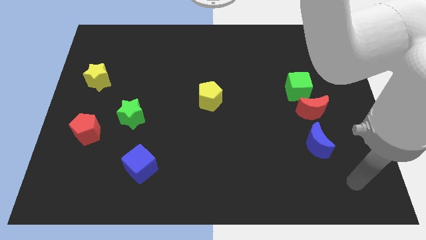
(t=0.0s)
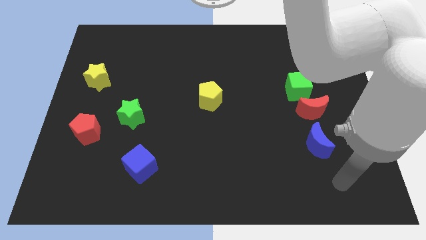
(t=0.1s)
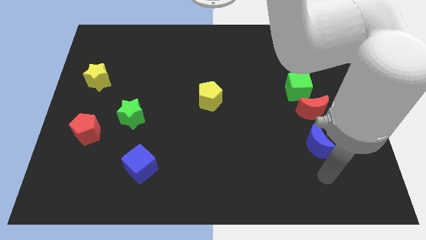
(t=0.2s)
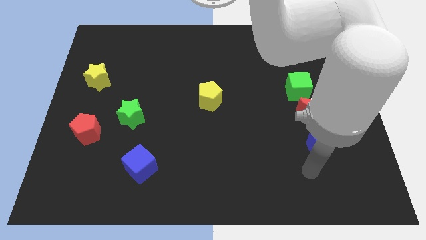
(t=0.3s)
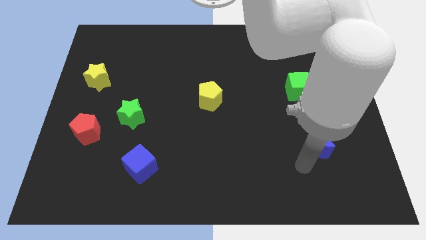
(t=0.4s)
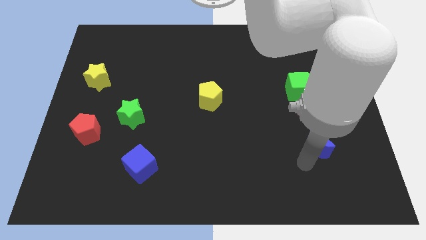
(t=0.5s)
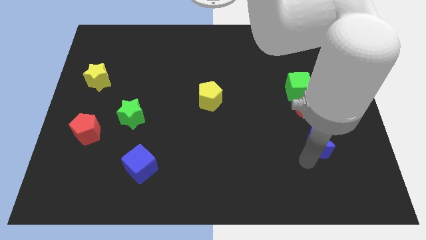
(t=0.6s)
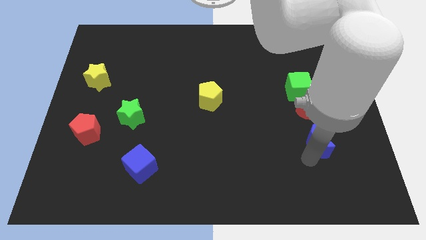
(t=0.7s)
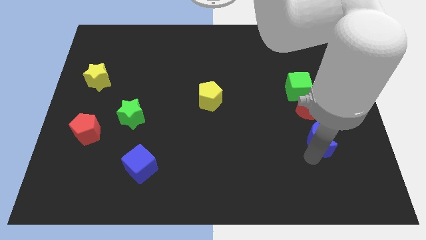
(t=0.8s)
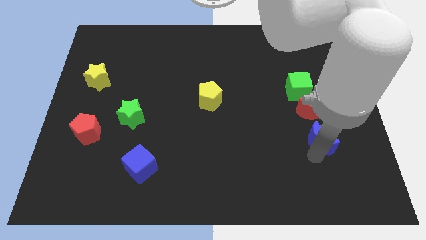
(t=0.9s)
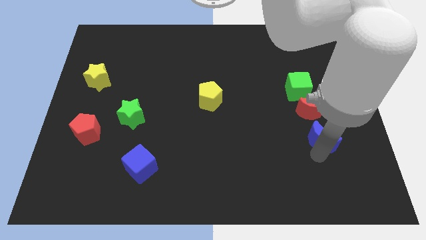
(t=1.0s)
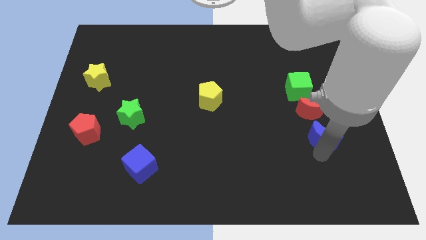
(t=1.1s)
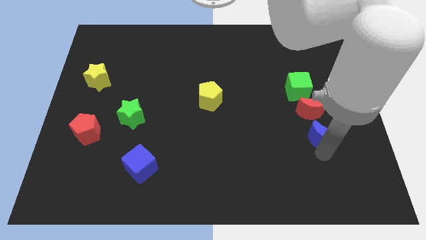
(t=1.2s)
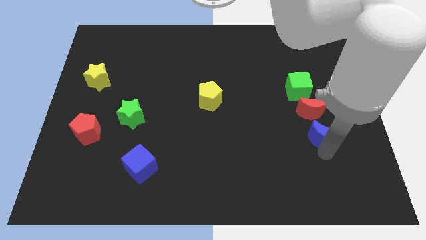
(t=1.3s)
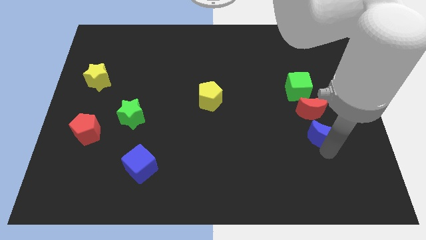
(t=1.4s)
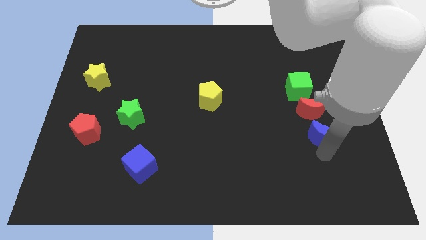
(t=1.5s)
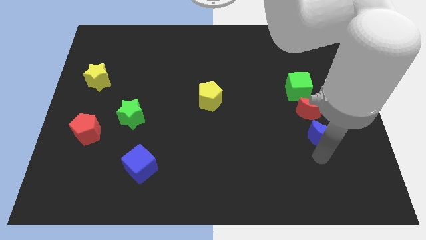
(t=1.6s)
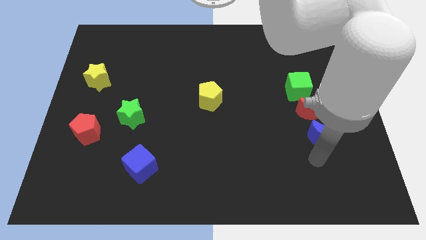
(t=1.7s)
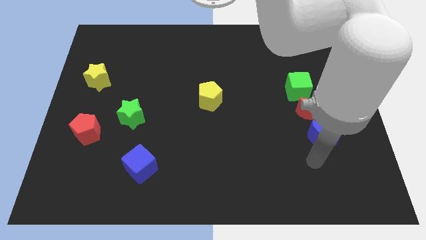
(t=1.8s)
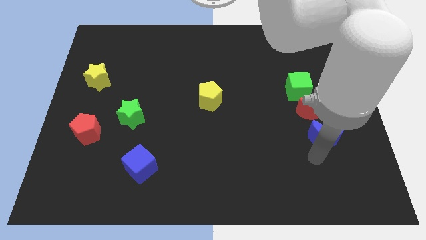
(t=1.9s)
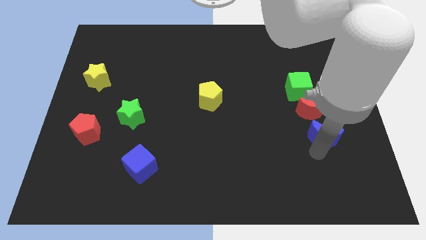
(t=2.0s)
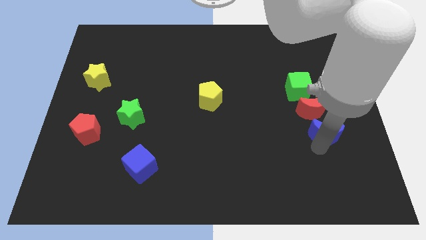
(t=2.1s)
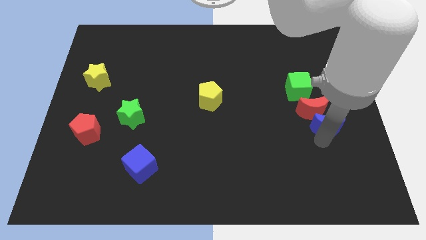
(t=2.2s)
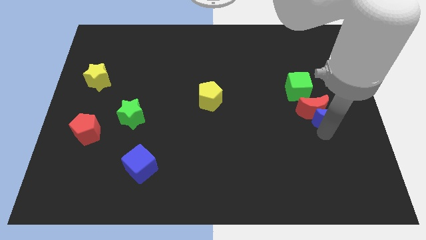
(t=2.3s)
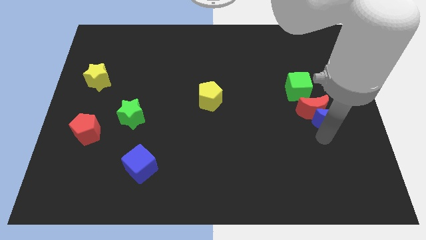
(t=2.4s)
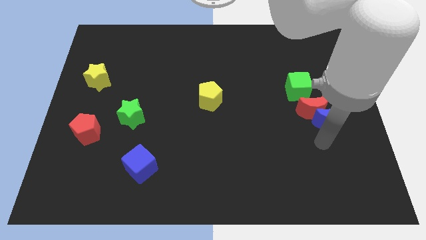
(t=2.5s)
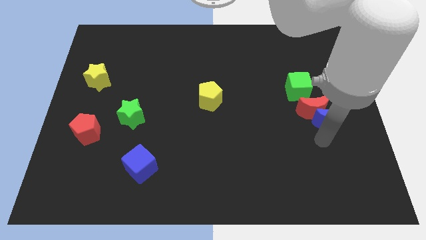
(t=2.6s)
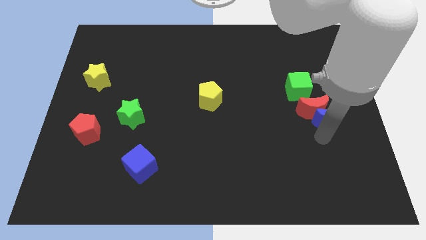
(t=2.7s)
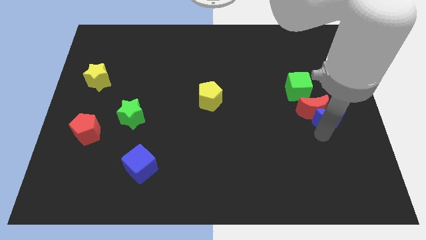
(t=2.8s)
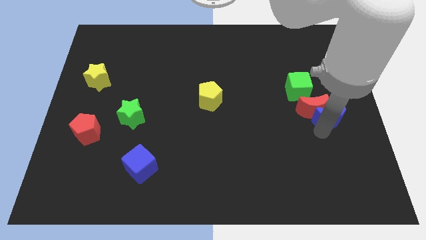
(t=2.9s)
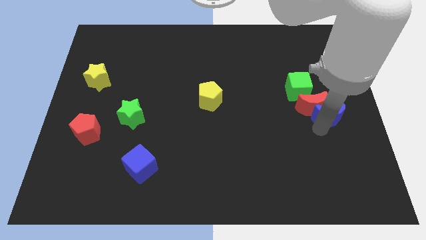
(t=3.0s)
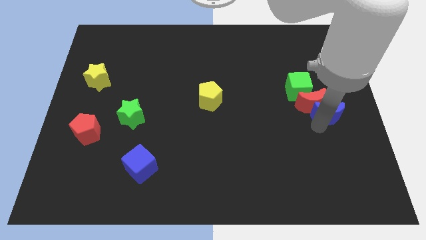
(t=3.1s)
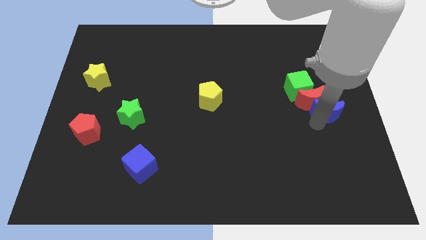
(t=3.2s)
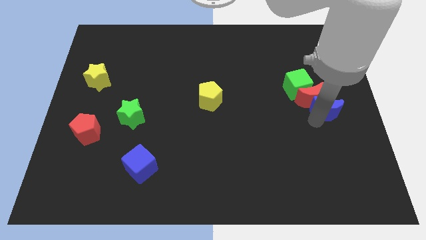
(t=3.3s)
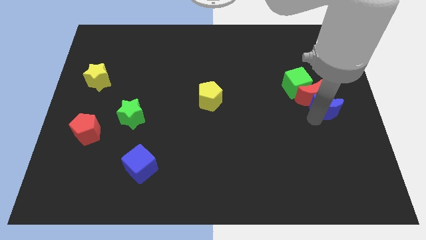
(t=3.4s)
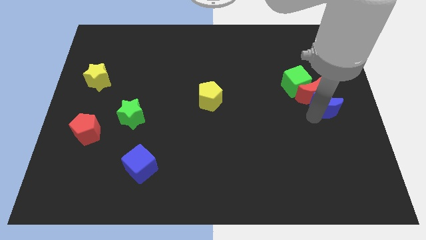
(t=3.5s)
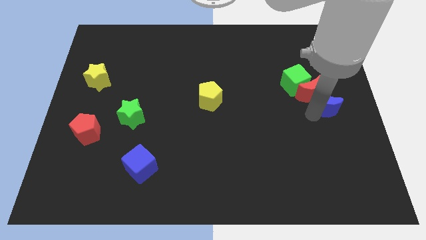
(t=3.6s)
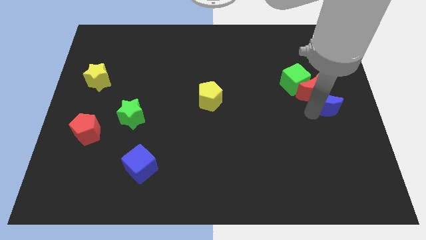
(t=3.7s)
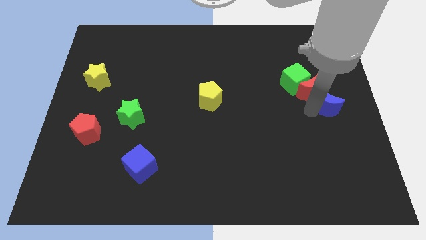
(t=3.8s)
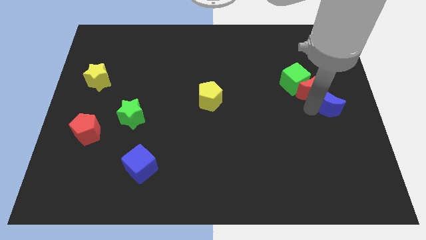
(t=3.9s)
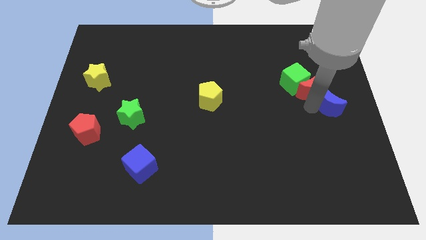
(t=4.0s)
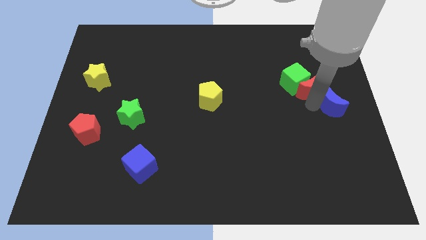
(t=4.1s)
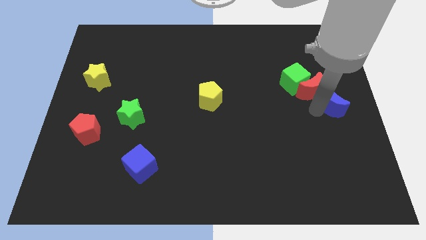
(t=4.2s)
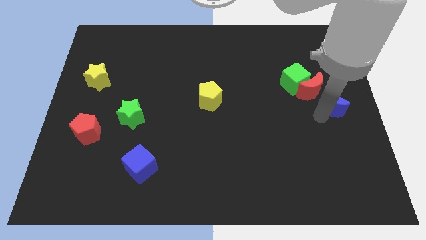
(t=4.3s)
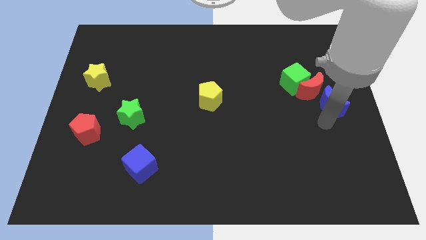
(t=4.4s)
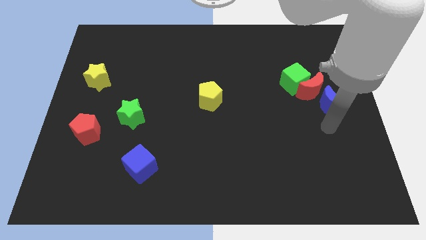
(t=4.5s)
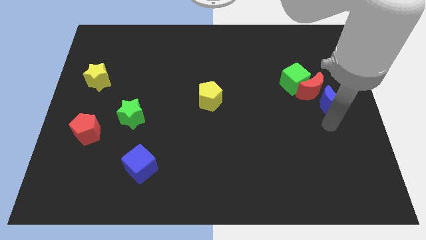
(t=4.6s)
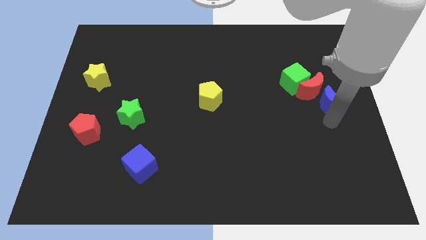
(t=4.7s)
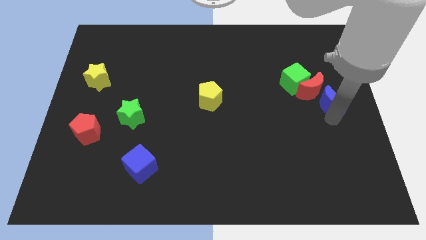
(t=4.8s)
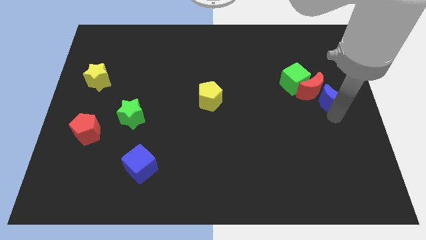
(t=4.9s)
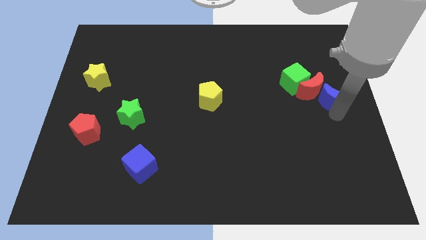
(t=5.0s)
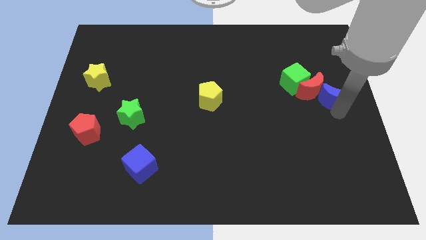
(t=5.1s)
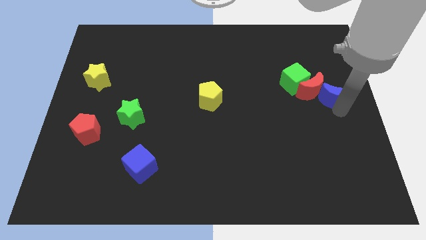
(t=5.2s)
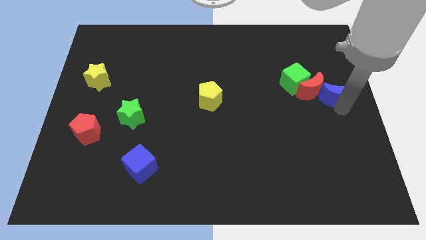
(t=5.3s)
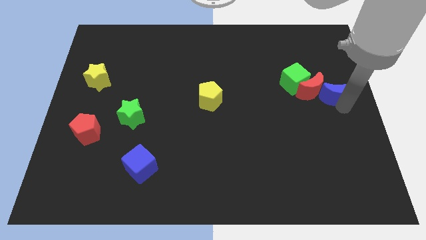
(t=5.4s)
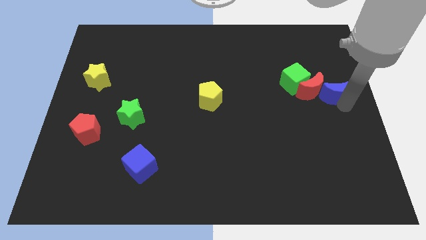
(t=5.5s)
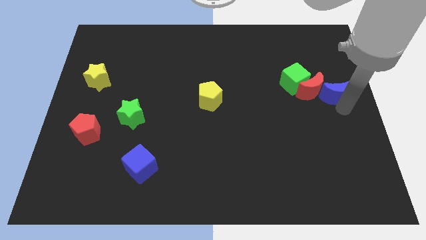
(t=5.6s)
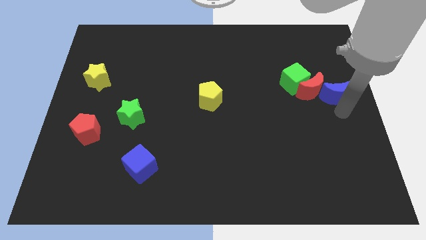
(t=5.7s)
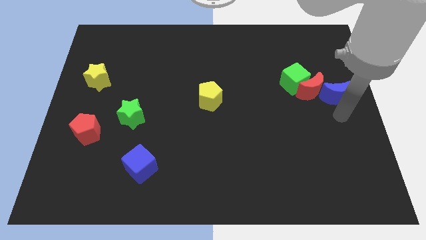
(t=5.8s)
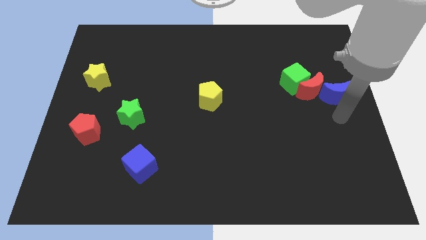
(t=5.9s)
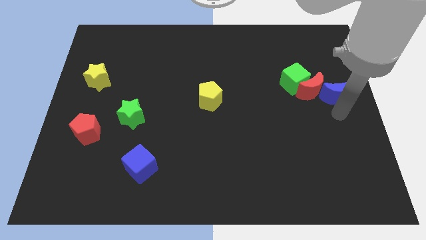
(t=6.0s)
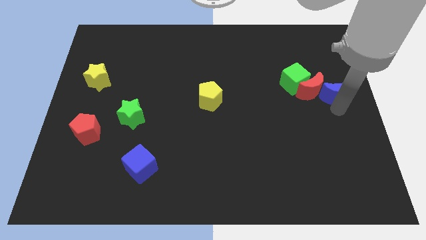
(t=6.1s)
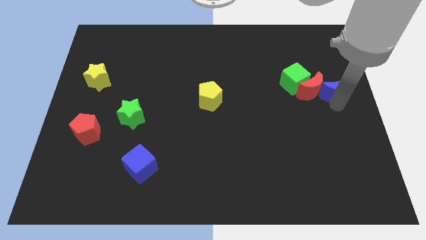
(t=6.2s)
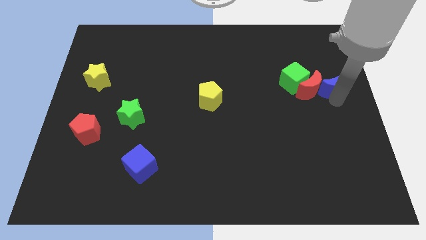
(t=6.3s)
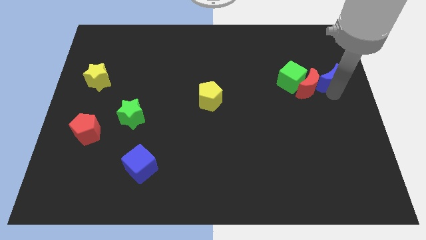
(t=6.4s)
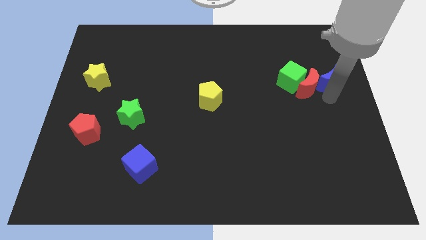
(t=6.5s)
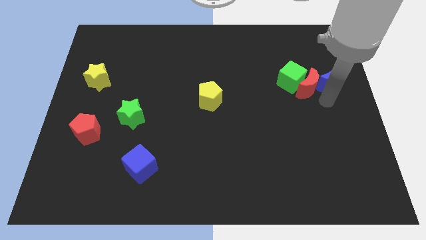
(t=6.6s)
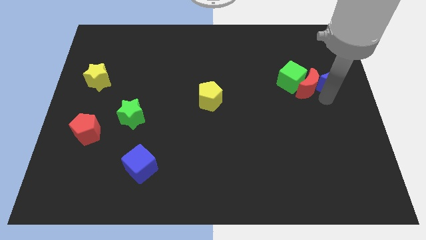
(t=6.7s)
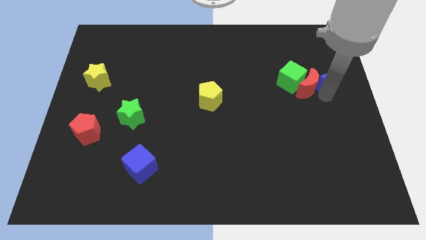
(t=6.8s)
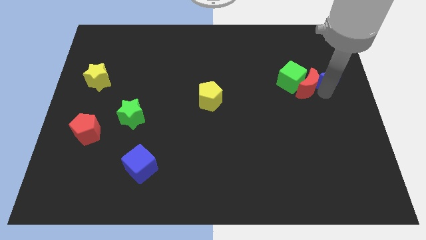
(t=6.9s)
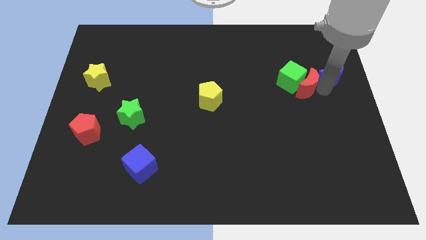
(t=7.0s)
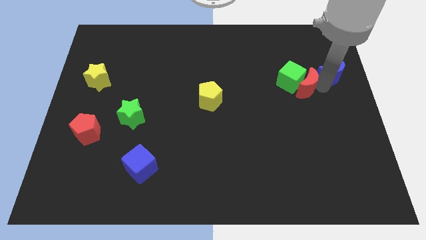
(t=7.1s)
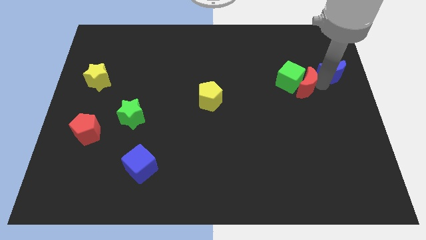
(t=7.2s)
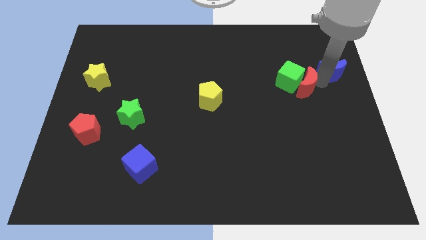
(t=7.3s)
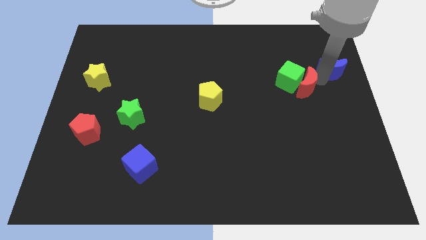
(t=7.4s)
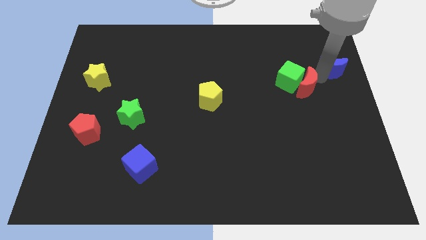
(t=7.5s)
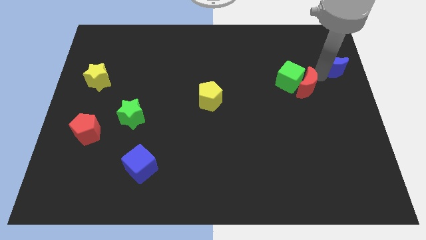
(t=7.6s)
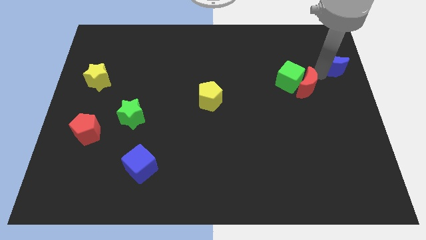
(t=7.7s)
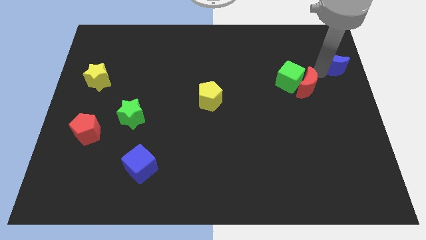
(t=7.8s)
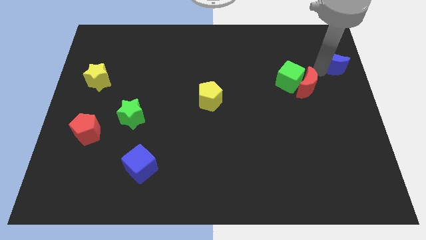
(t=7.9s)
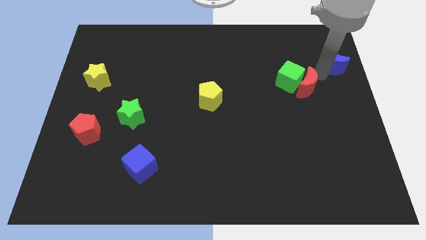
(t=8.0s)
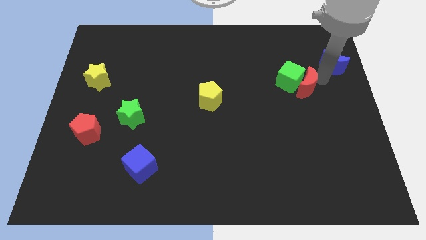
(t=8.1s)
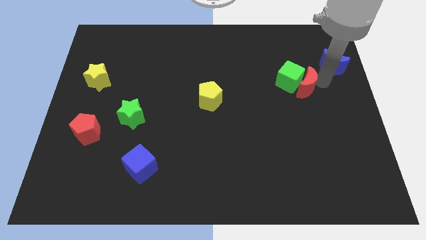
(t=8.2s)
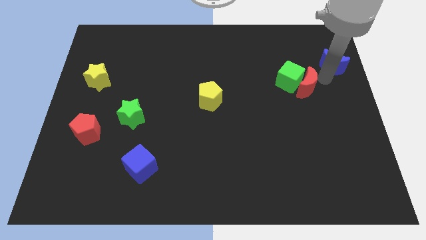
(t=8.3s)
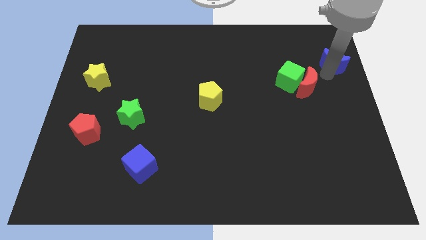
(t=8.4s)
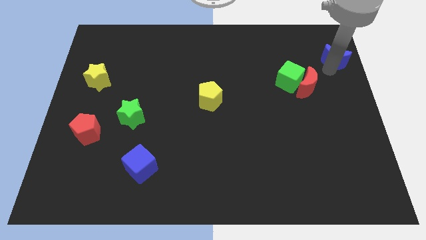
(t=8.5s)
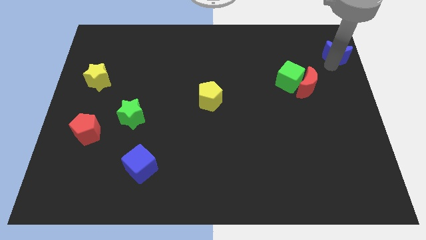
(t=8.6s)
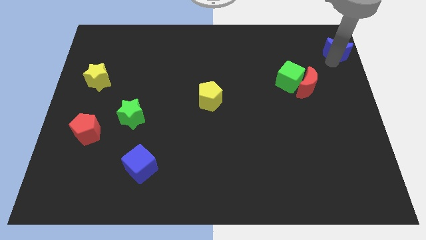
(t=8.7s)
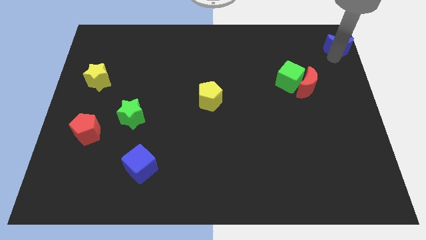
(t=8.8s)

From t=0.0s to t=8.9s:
move the blue moon to the upper right corner
